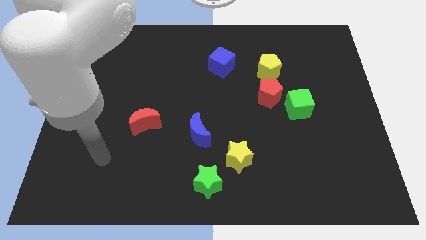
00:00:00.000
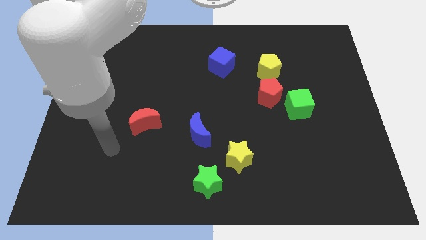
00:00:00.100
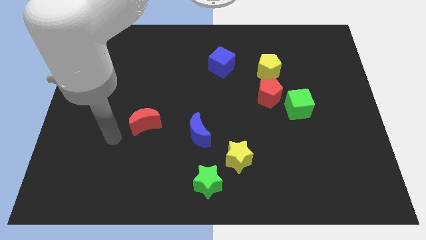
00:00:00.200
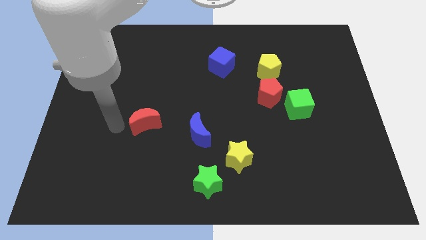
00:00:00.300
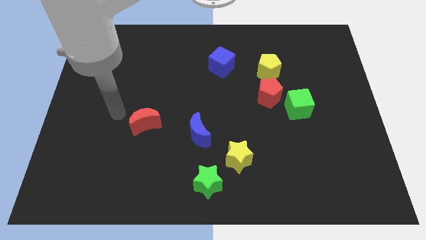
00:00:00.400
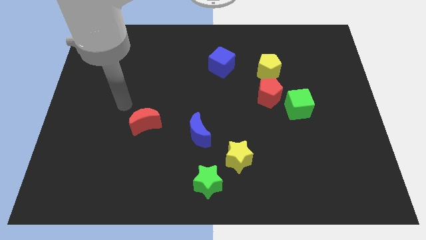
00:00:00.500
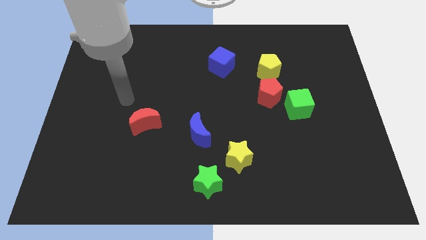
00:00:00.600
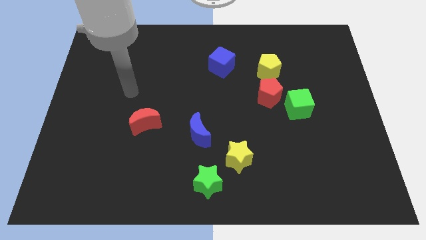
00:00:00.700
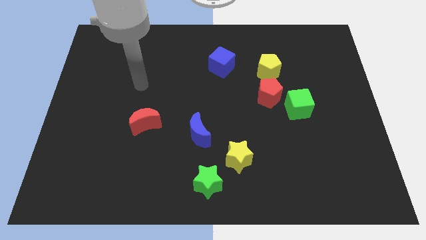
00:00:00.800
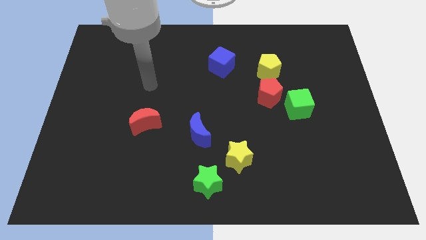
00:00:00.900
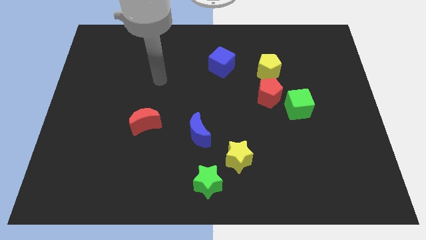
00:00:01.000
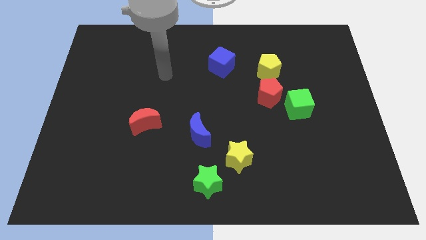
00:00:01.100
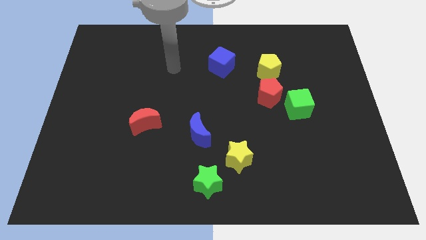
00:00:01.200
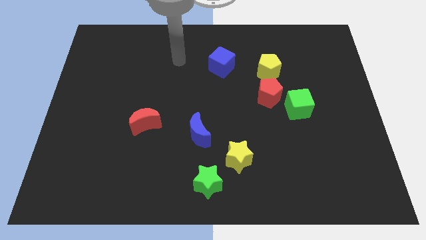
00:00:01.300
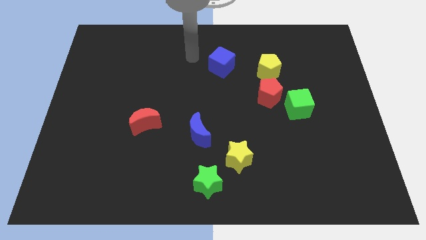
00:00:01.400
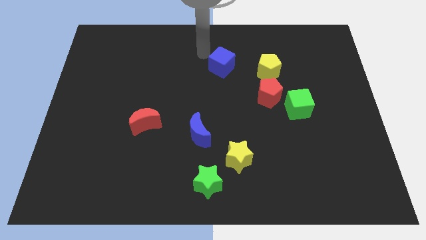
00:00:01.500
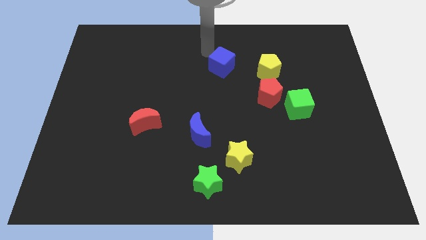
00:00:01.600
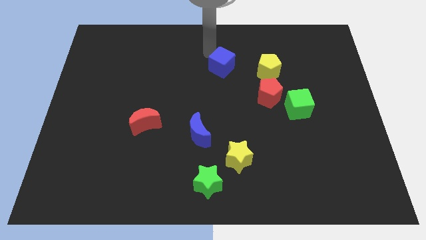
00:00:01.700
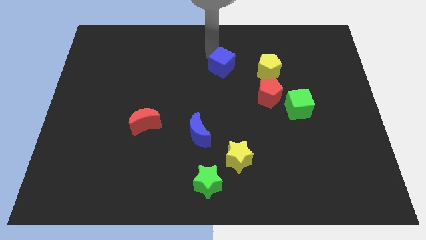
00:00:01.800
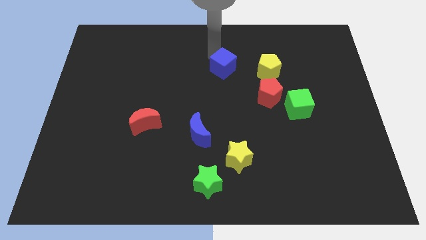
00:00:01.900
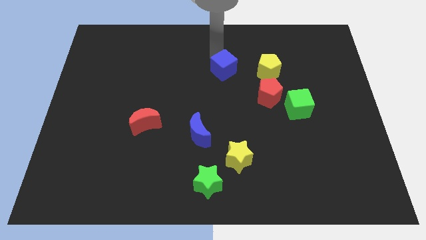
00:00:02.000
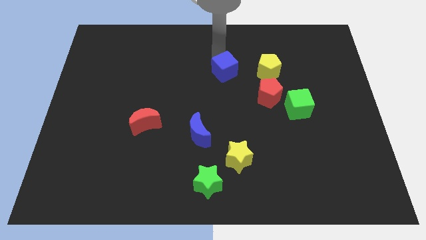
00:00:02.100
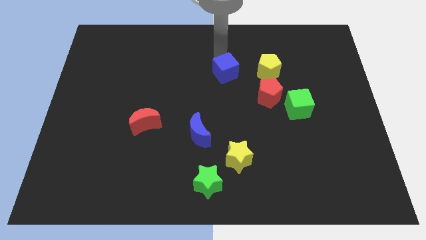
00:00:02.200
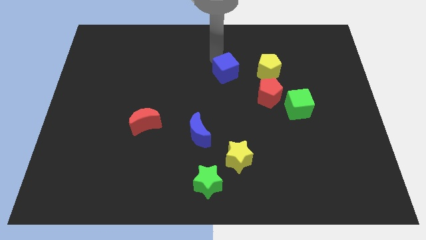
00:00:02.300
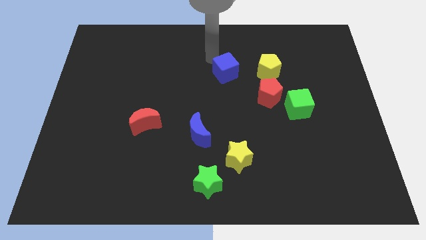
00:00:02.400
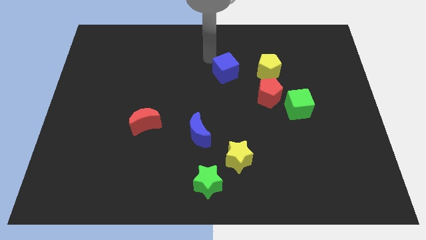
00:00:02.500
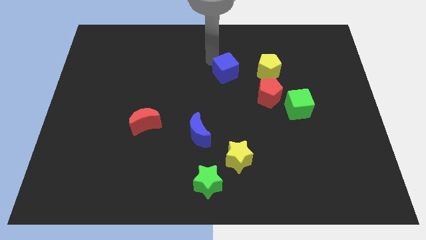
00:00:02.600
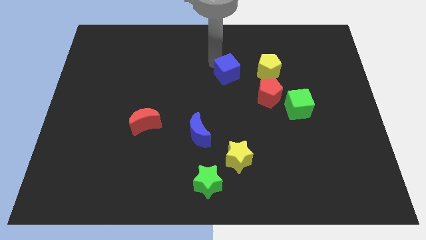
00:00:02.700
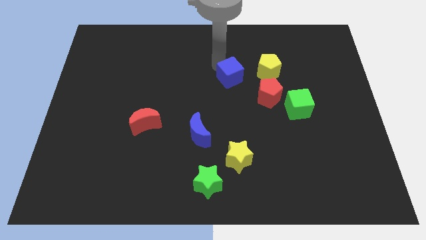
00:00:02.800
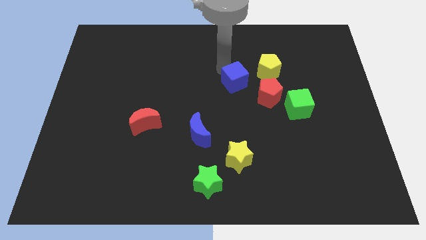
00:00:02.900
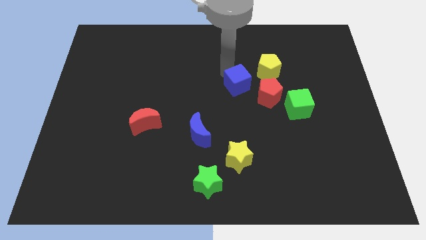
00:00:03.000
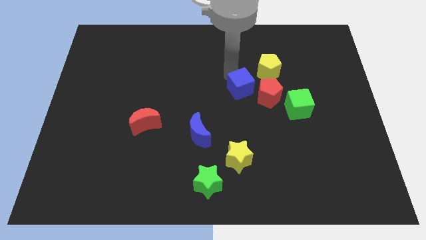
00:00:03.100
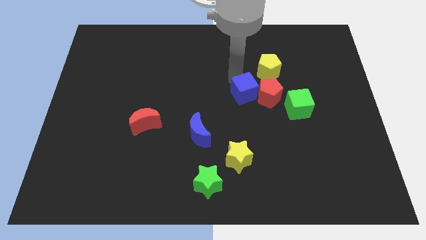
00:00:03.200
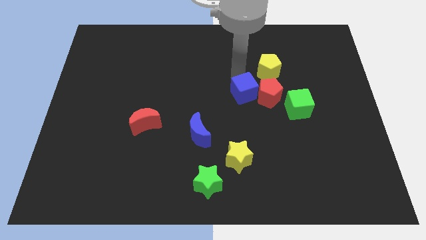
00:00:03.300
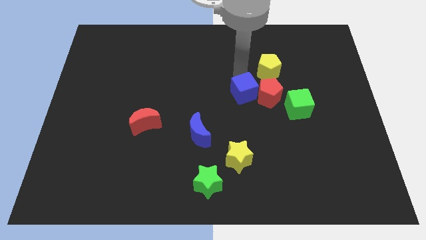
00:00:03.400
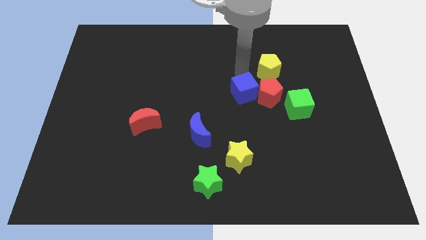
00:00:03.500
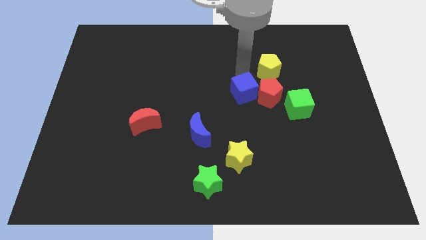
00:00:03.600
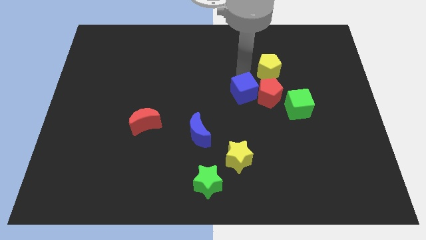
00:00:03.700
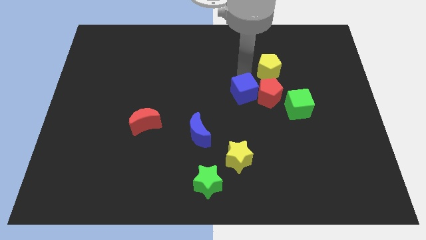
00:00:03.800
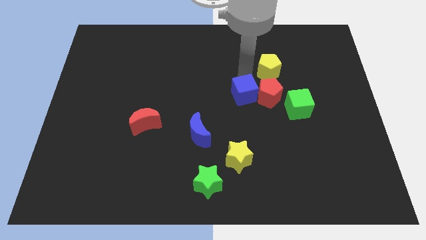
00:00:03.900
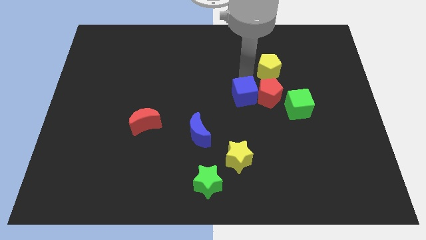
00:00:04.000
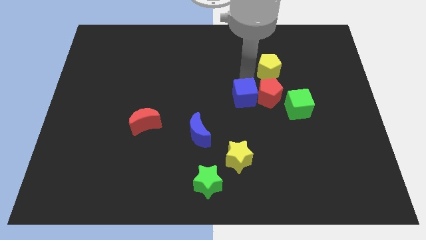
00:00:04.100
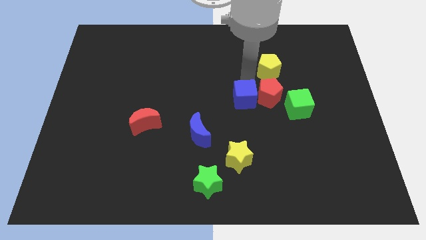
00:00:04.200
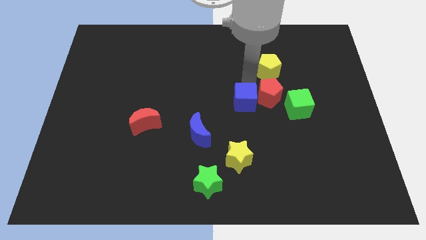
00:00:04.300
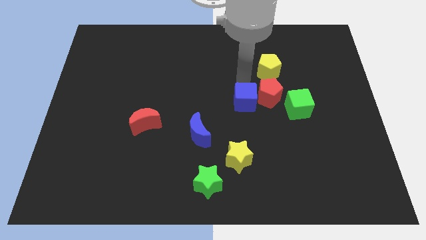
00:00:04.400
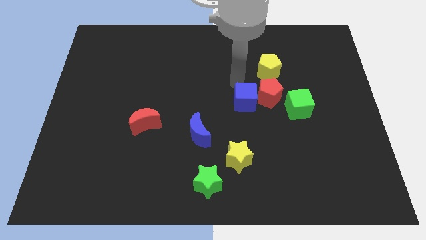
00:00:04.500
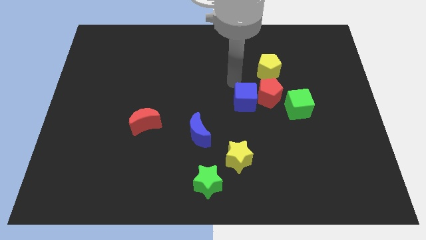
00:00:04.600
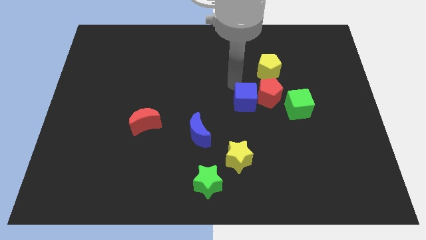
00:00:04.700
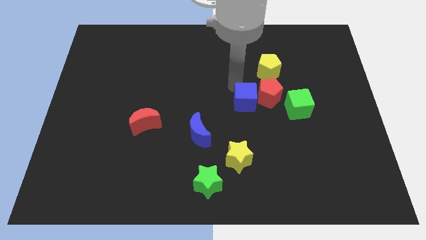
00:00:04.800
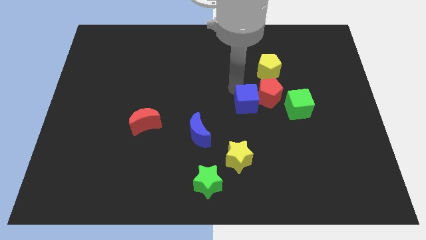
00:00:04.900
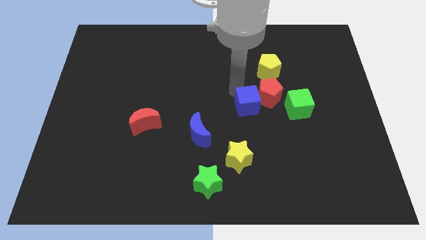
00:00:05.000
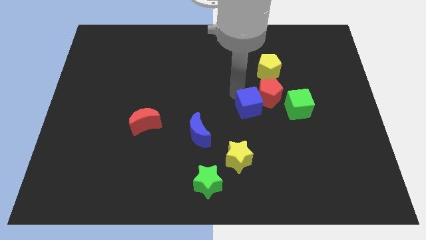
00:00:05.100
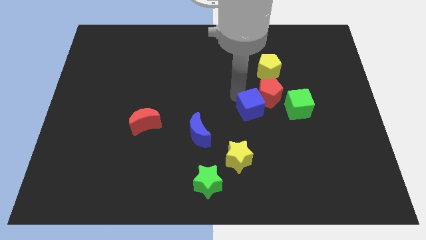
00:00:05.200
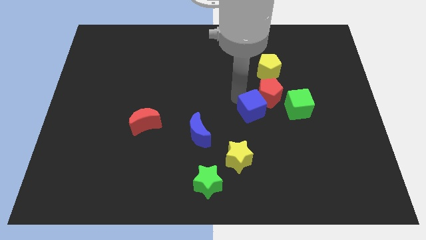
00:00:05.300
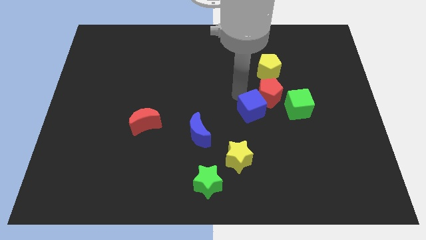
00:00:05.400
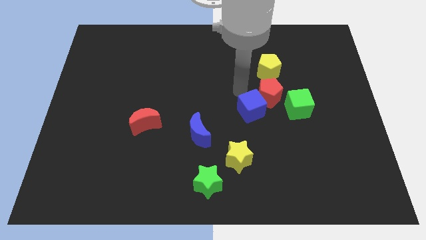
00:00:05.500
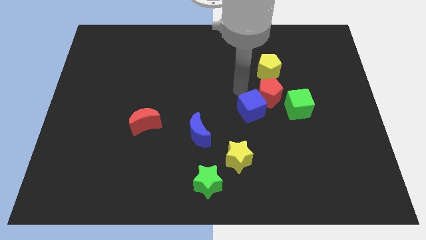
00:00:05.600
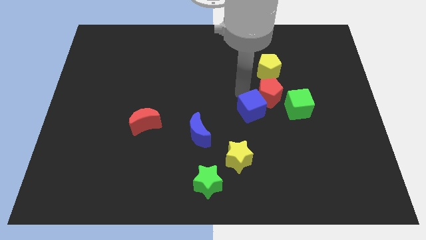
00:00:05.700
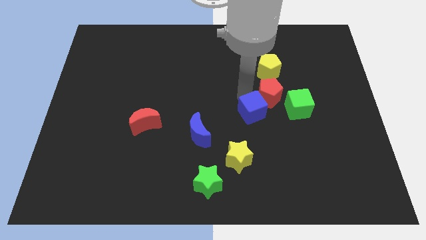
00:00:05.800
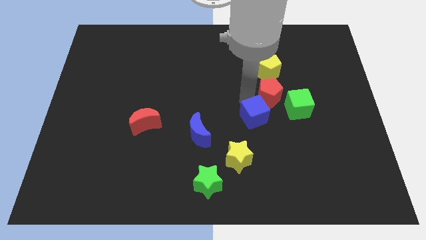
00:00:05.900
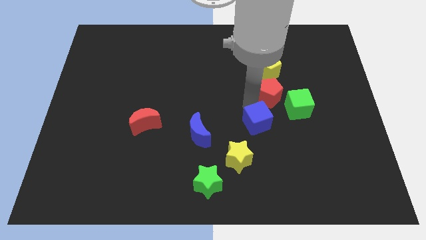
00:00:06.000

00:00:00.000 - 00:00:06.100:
slide the blue cube to the top right side of the yellow star
